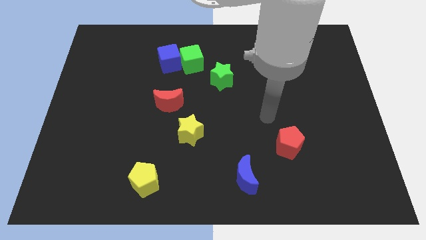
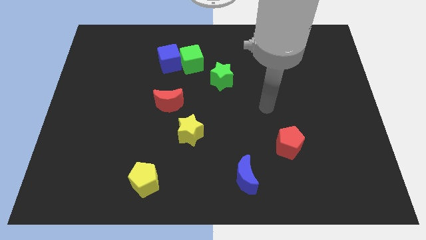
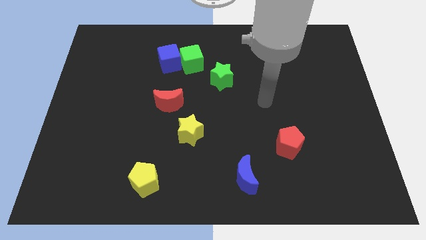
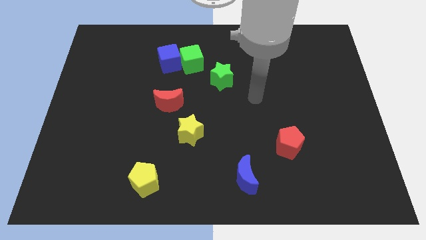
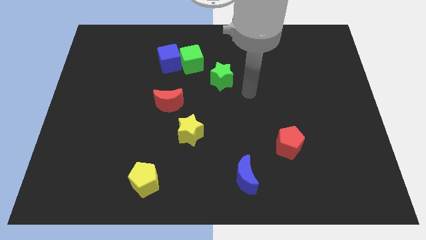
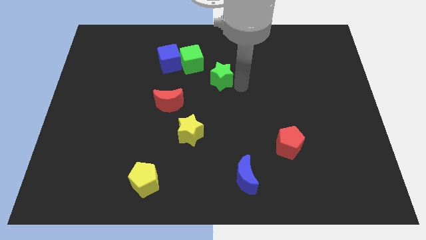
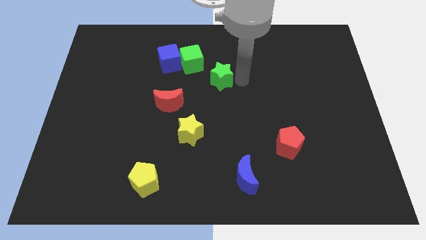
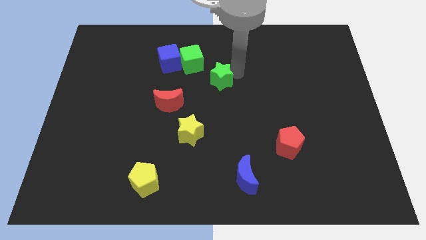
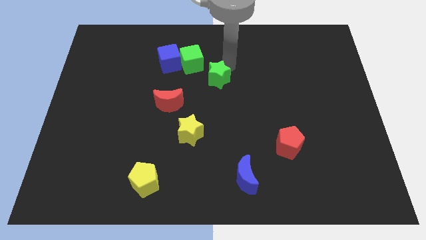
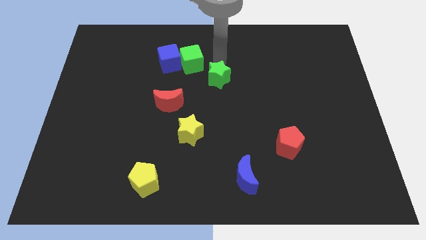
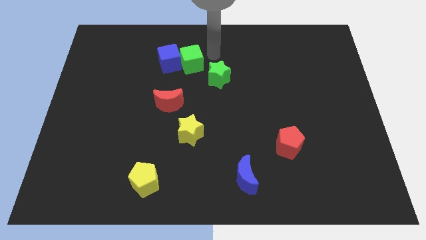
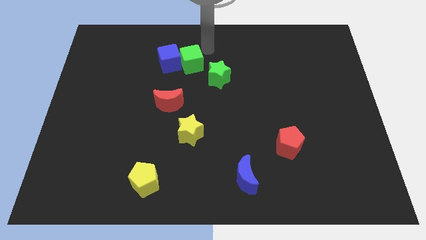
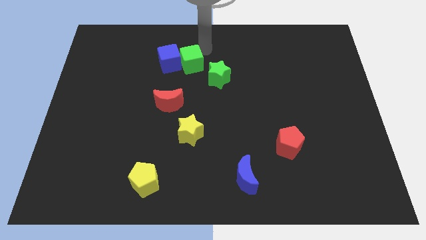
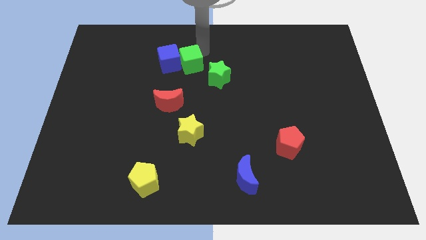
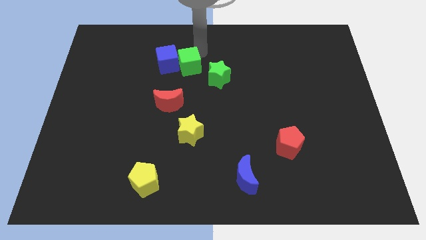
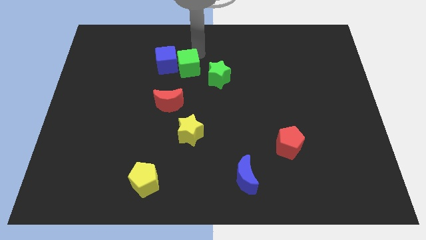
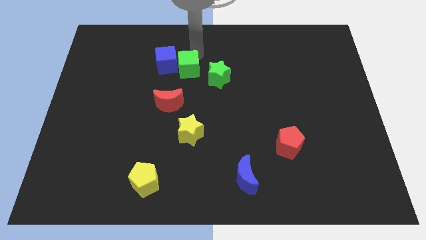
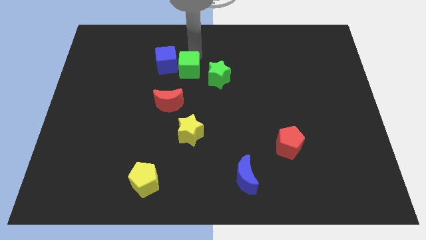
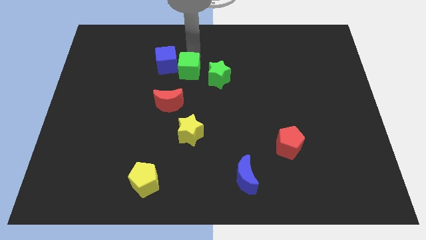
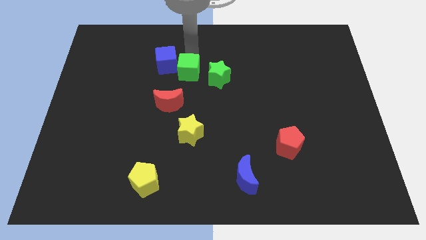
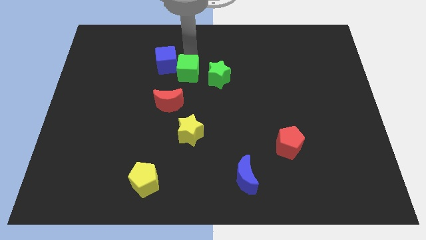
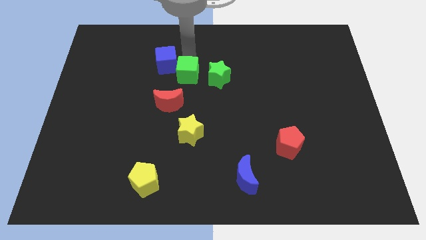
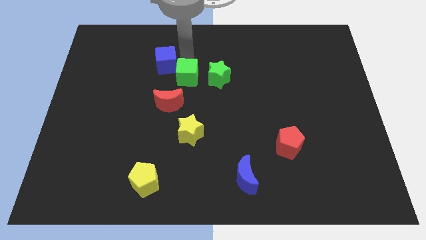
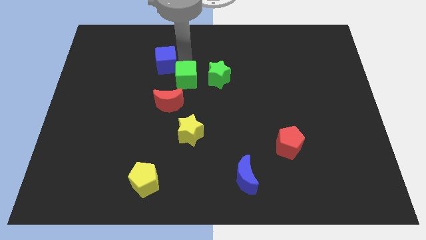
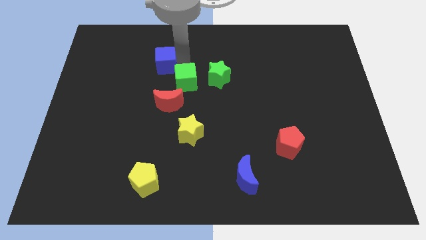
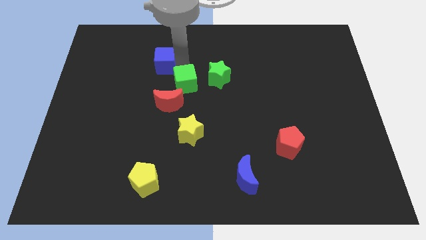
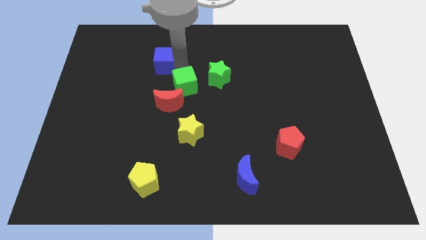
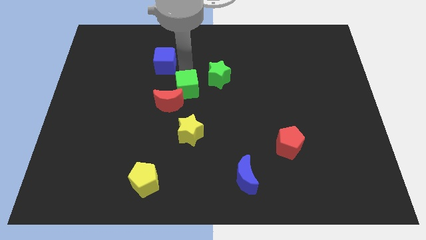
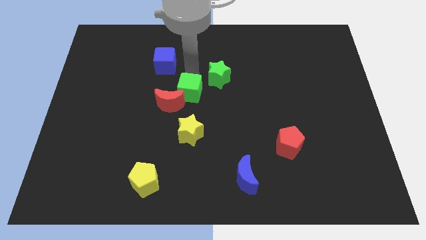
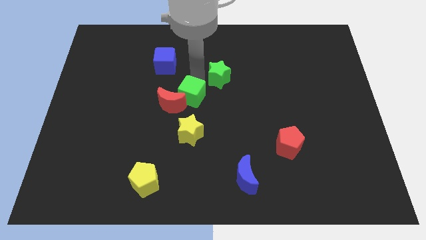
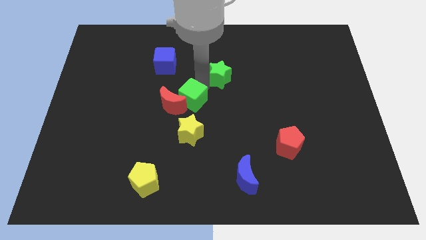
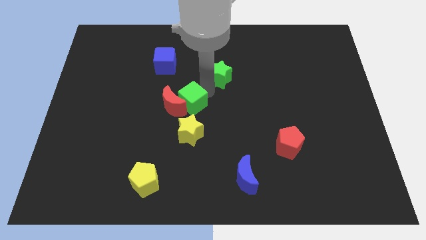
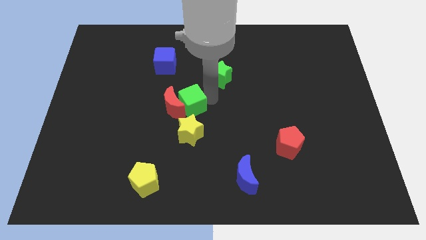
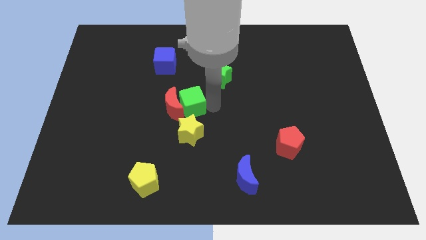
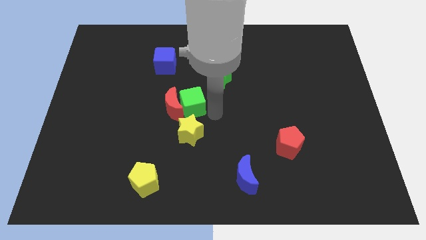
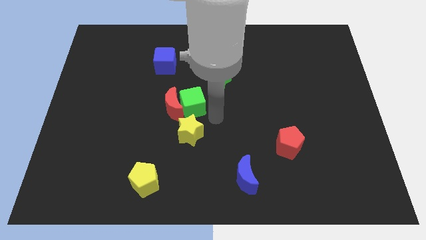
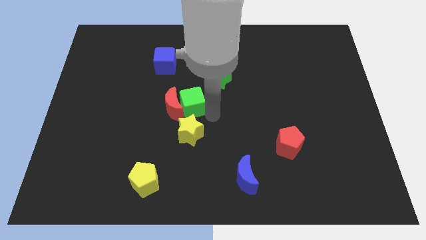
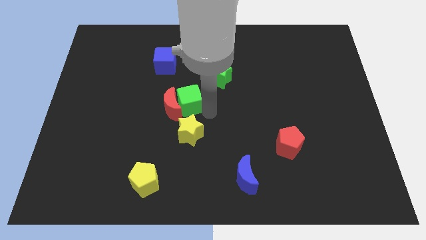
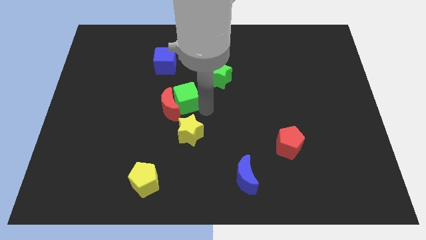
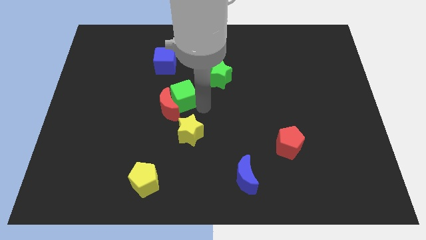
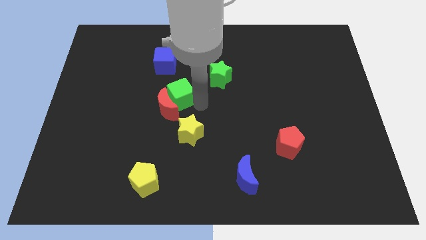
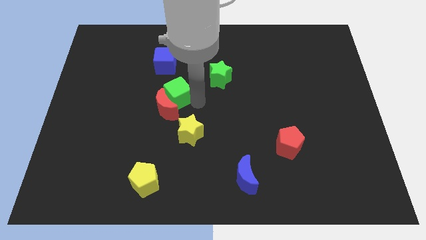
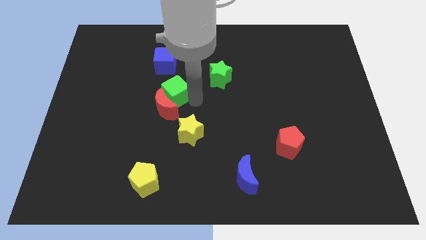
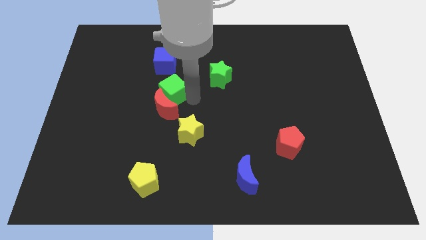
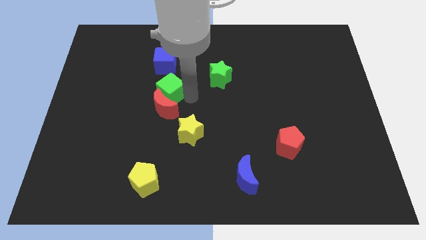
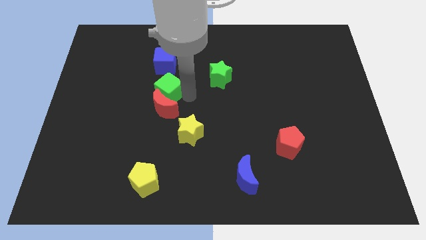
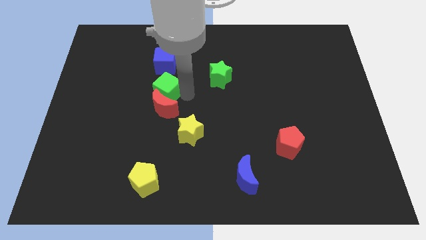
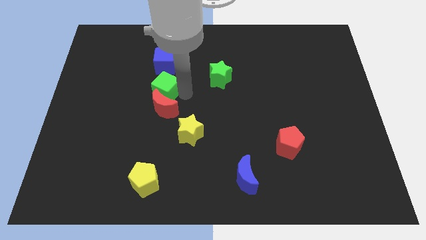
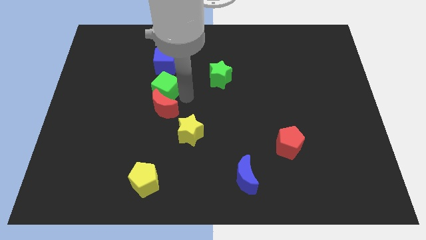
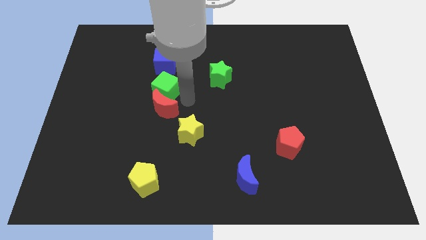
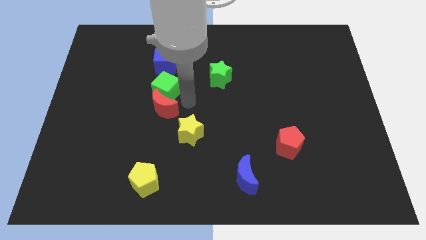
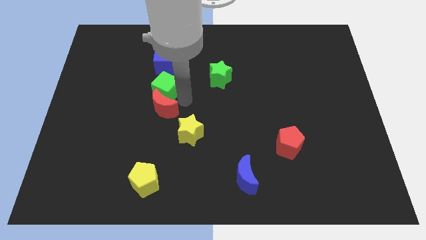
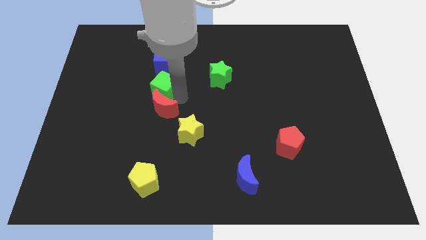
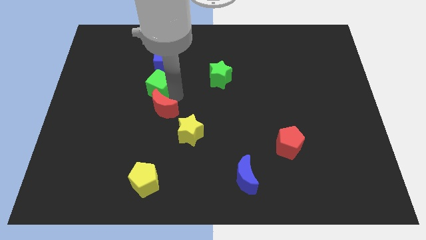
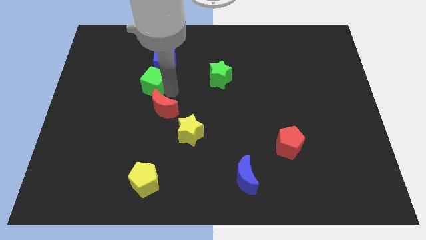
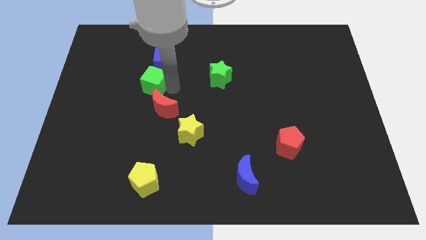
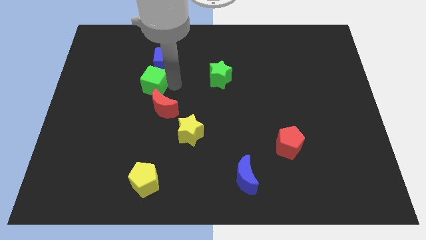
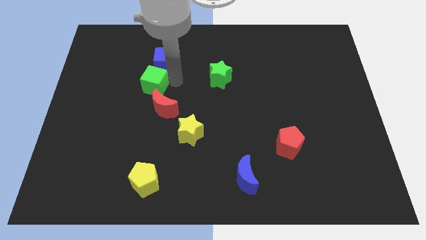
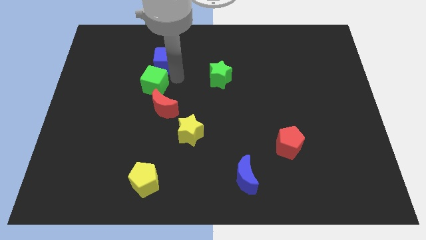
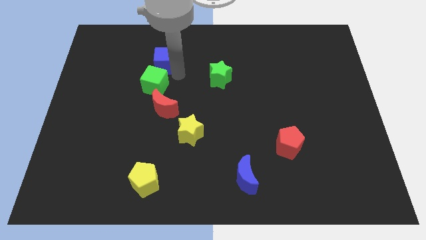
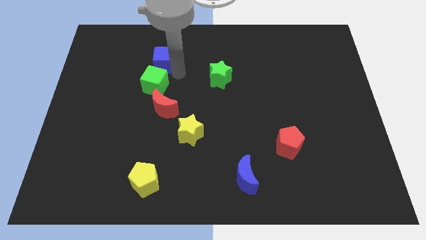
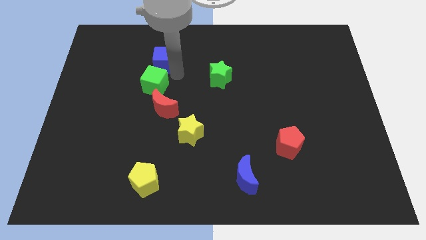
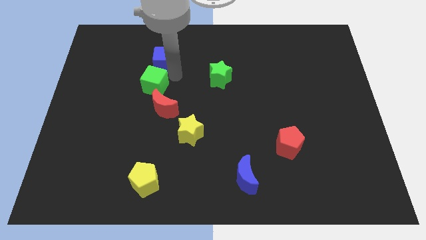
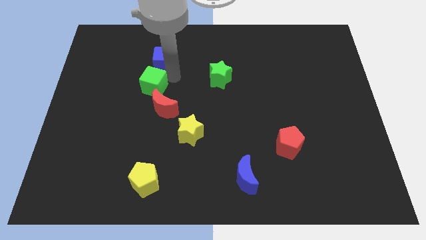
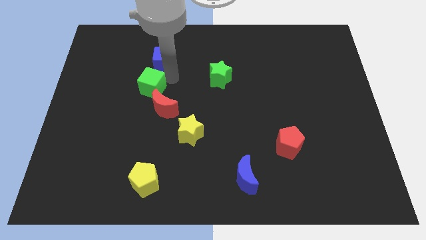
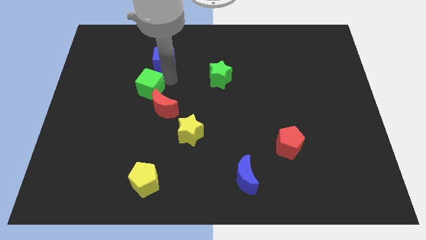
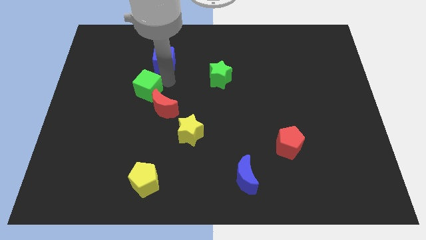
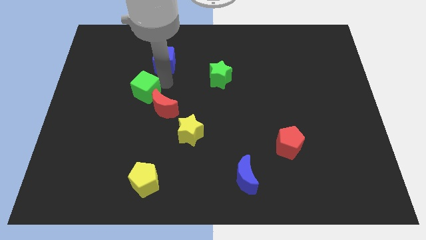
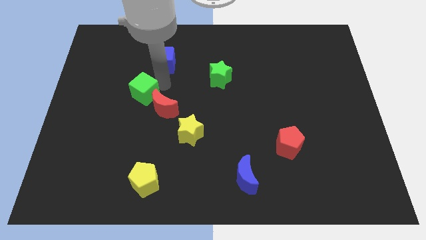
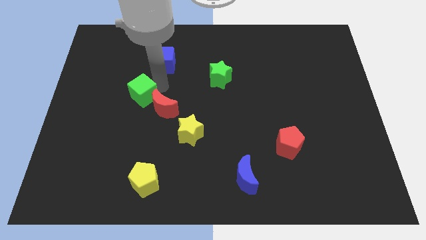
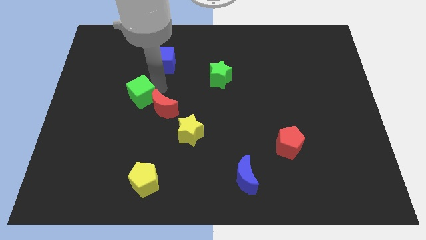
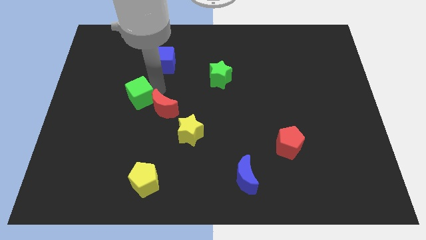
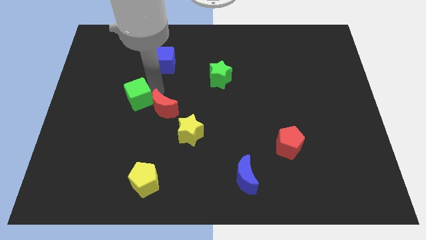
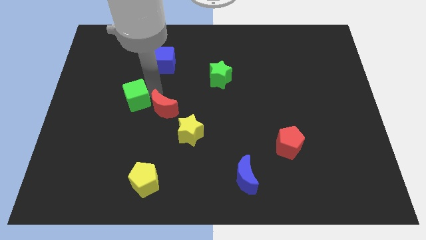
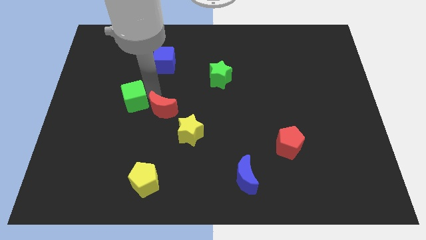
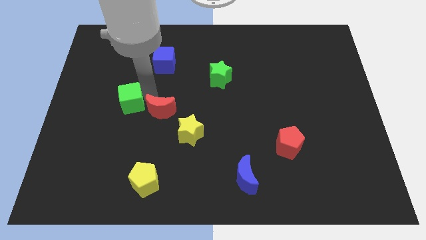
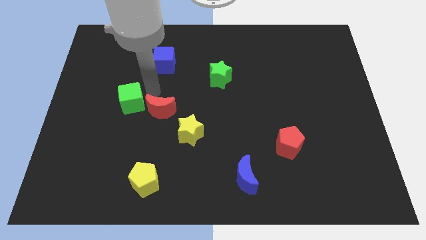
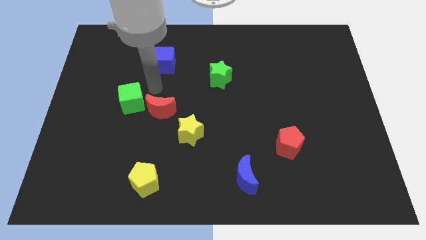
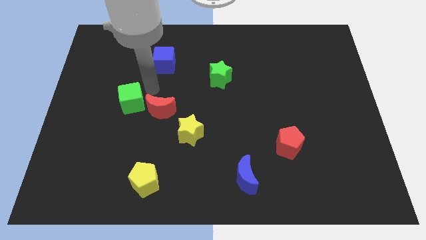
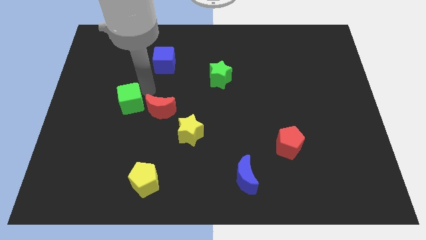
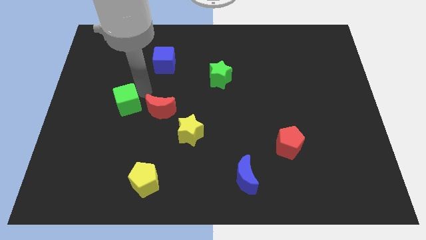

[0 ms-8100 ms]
move the green cube downwards and to the left diagonally

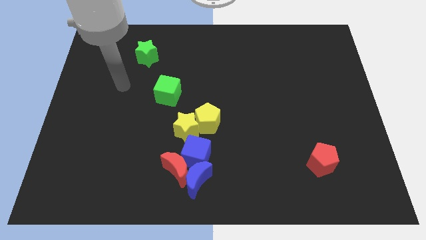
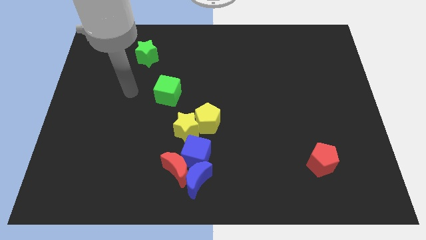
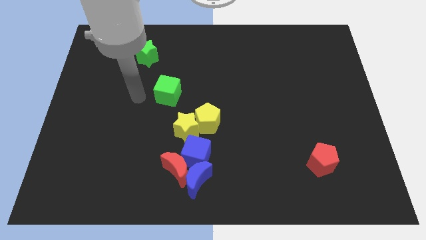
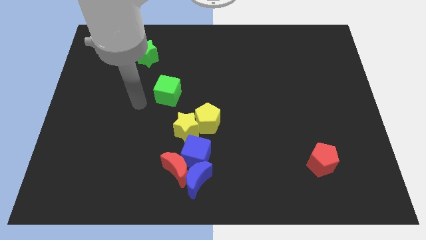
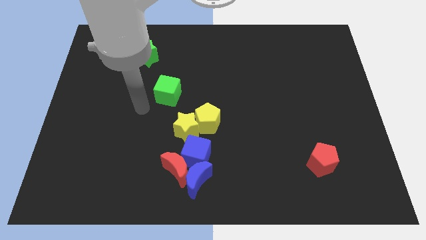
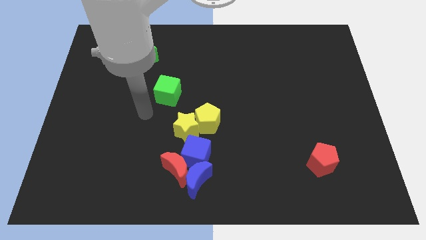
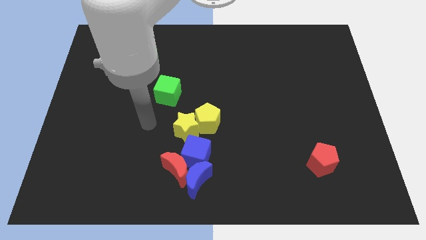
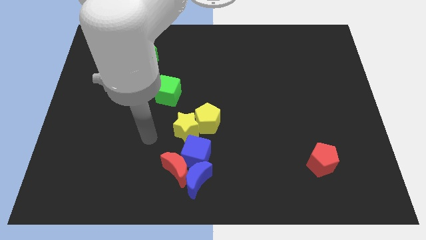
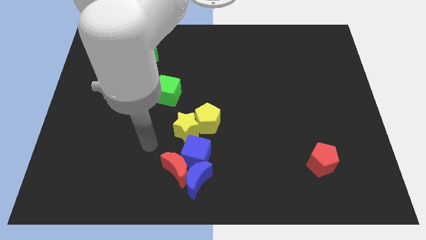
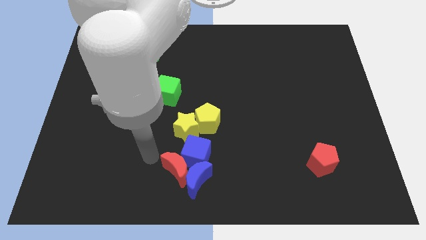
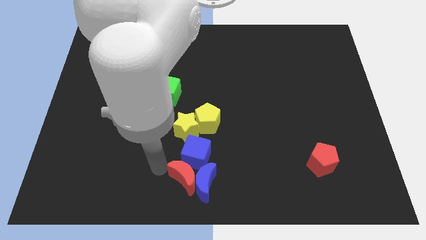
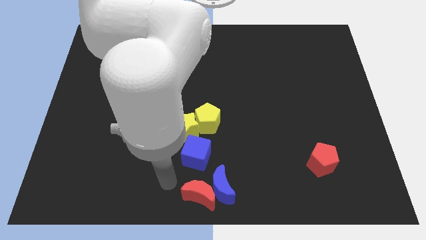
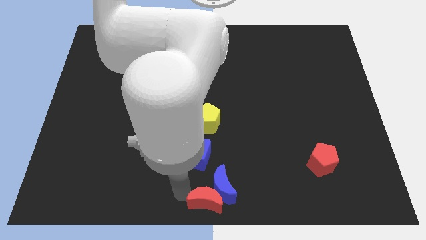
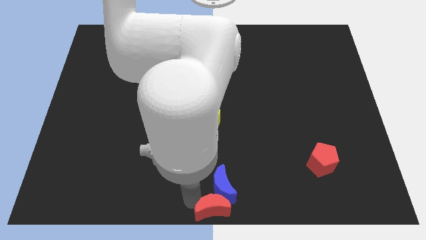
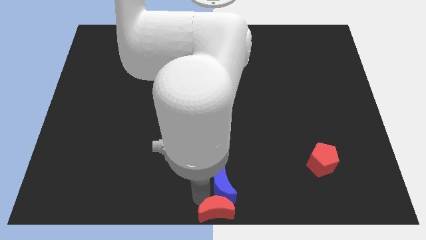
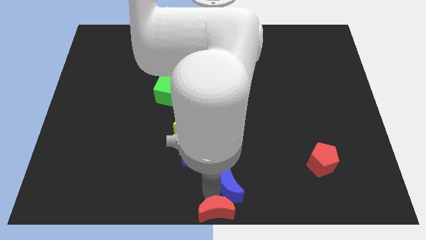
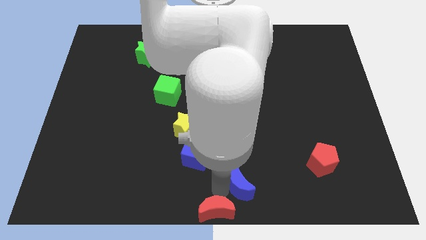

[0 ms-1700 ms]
slightly push the blue moon right
